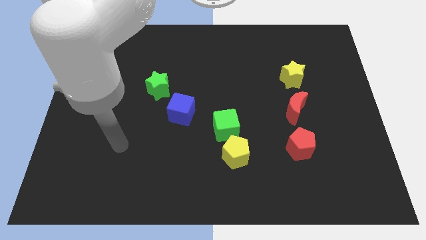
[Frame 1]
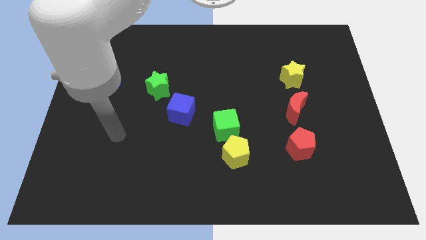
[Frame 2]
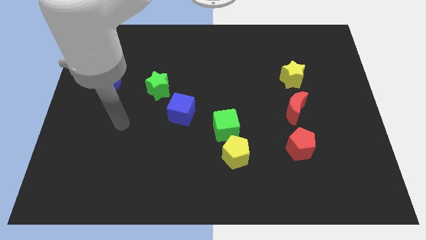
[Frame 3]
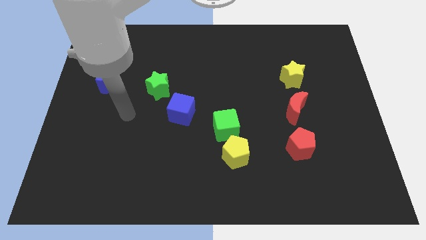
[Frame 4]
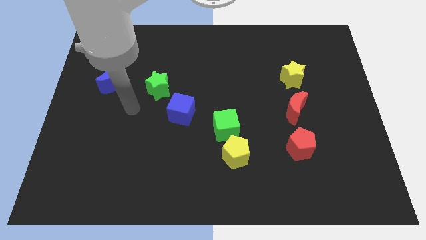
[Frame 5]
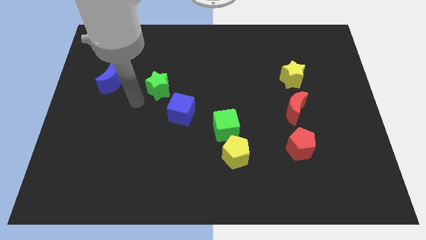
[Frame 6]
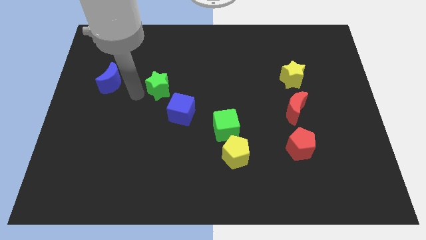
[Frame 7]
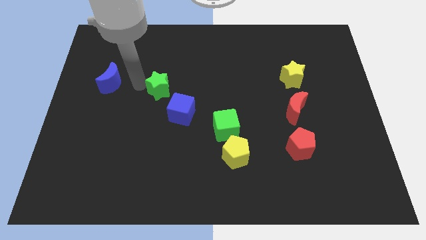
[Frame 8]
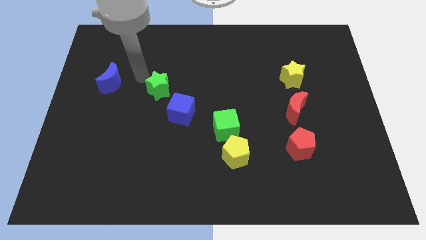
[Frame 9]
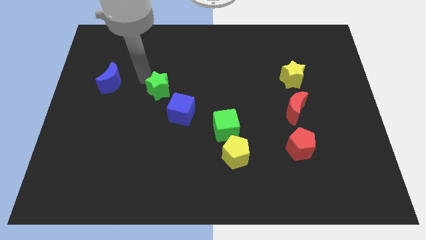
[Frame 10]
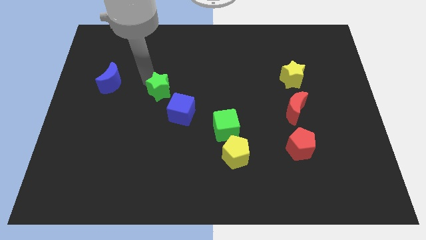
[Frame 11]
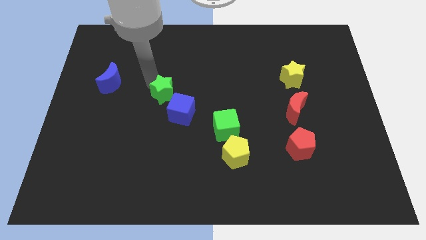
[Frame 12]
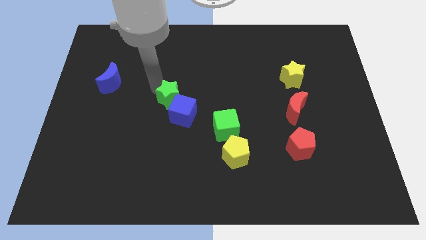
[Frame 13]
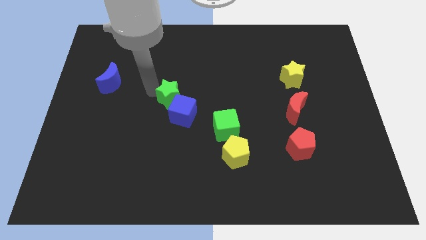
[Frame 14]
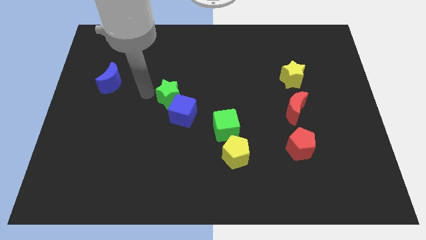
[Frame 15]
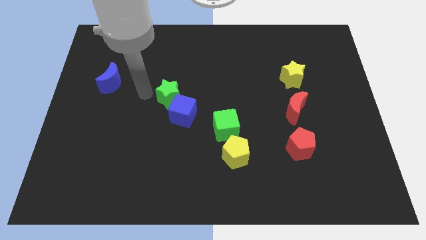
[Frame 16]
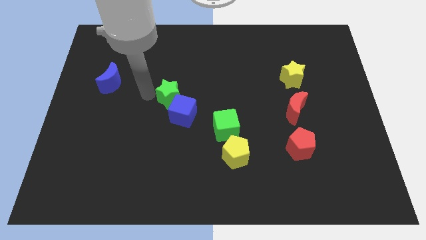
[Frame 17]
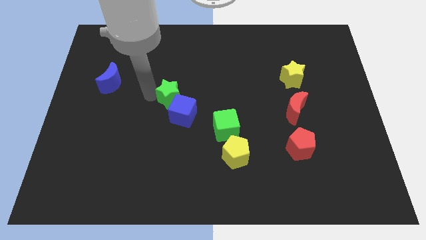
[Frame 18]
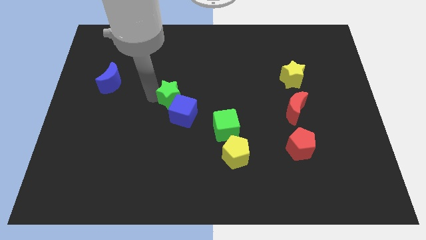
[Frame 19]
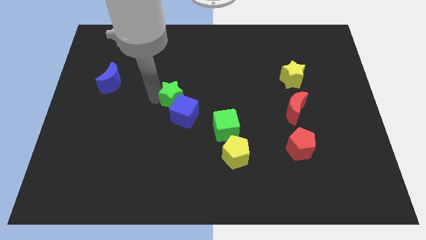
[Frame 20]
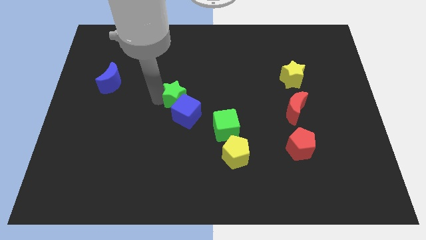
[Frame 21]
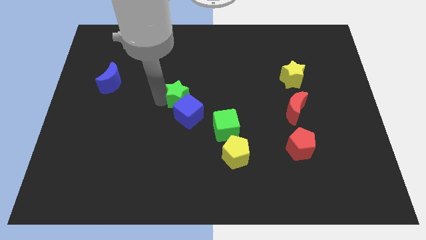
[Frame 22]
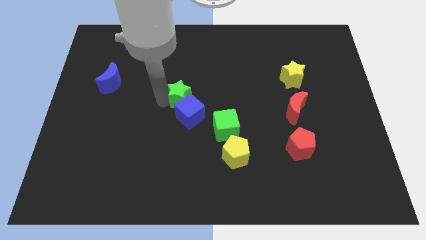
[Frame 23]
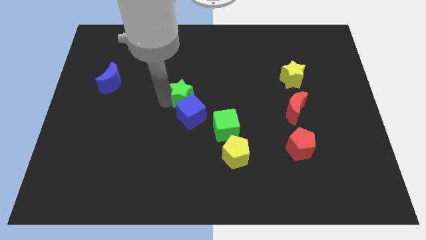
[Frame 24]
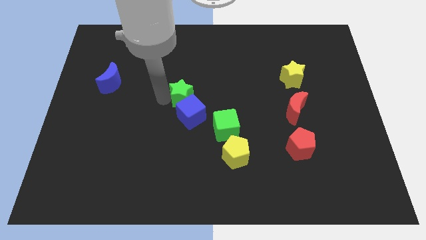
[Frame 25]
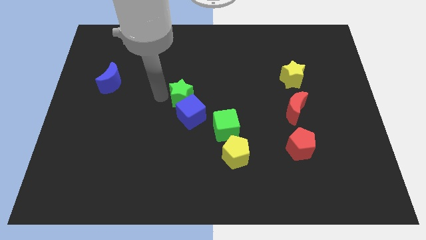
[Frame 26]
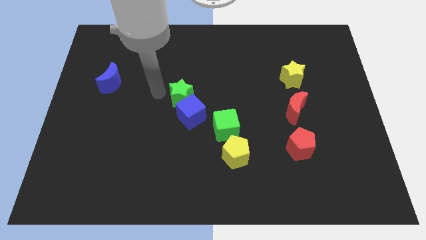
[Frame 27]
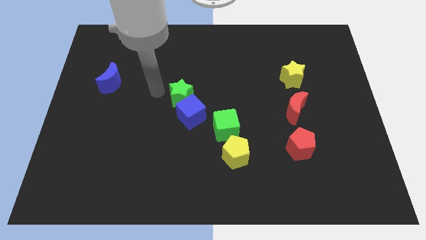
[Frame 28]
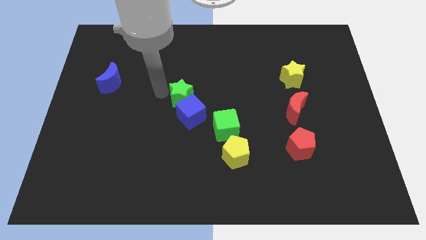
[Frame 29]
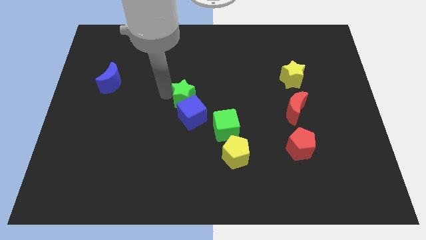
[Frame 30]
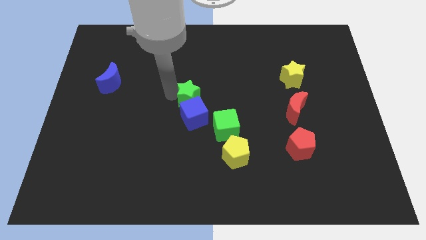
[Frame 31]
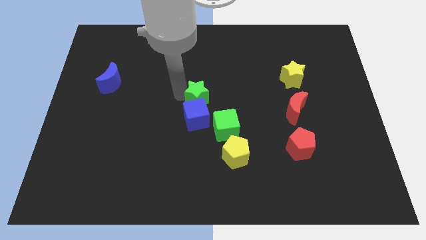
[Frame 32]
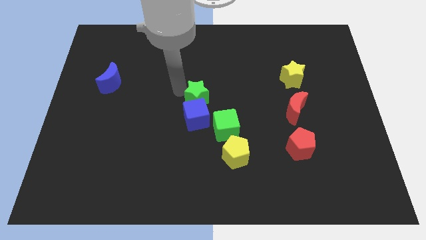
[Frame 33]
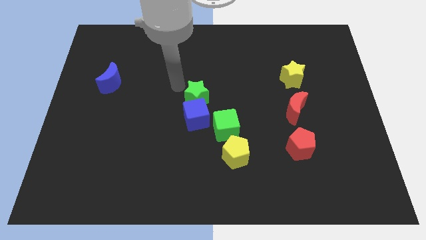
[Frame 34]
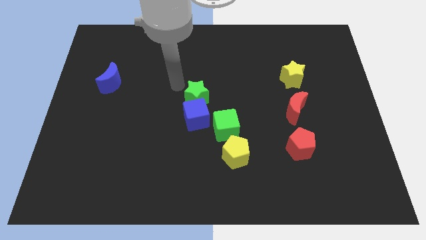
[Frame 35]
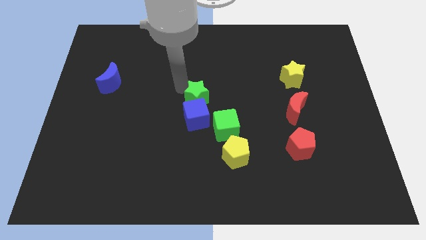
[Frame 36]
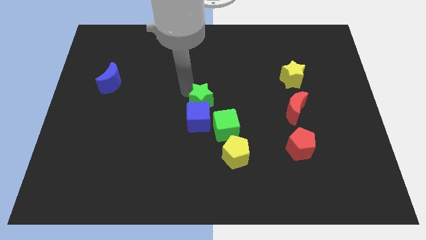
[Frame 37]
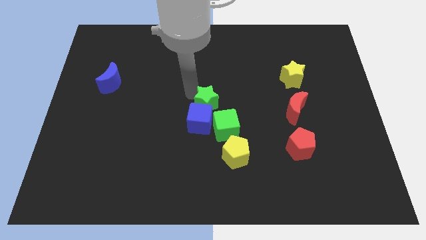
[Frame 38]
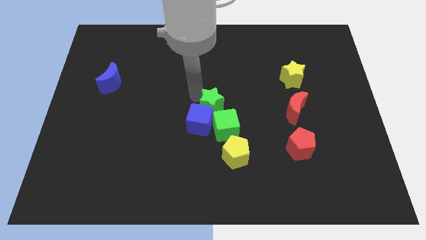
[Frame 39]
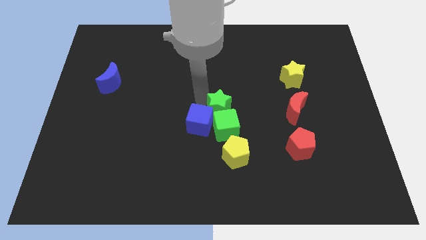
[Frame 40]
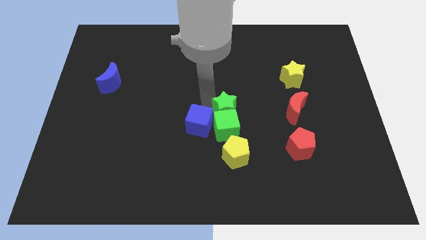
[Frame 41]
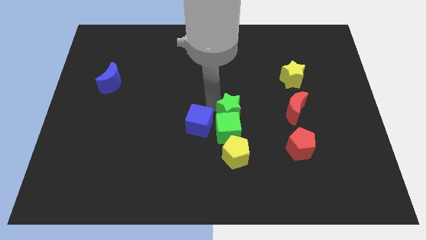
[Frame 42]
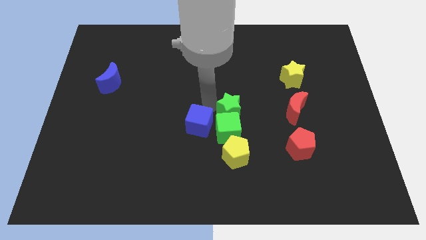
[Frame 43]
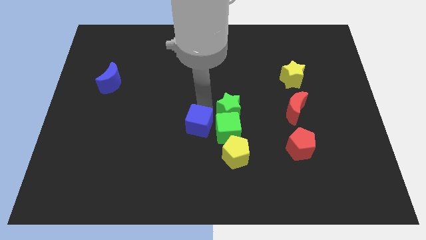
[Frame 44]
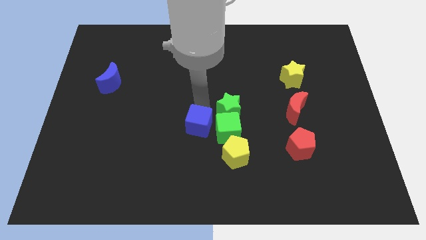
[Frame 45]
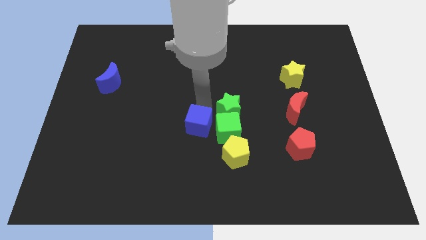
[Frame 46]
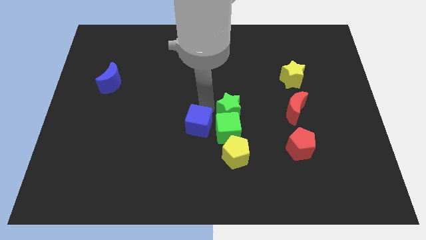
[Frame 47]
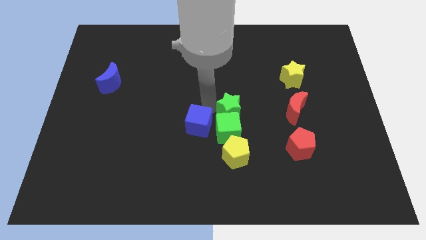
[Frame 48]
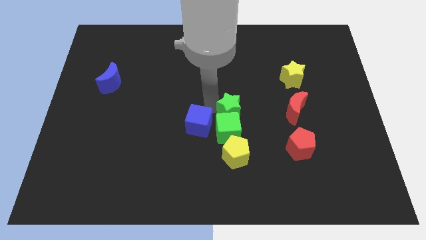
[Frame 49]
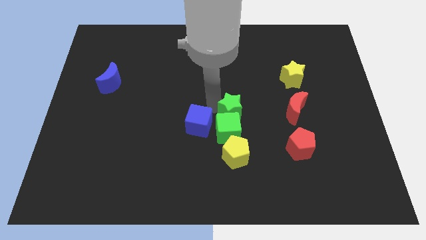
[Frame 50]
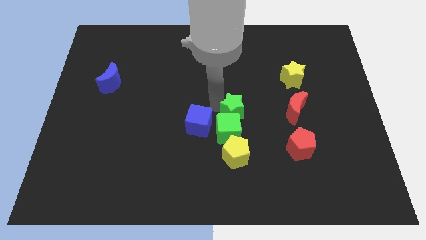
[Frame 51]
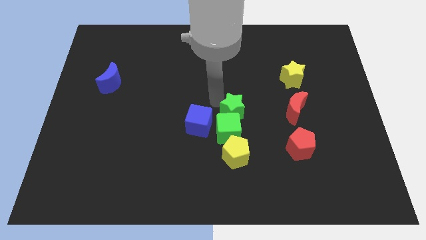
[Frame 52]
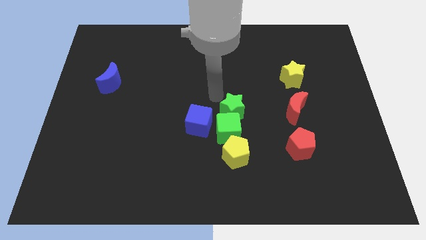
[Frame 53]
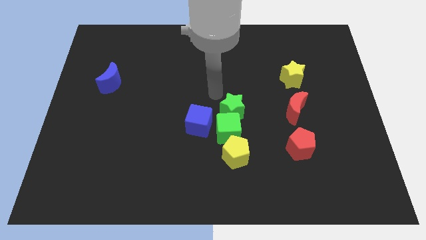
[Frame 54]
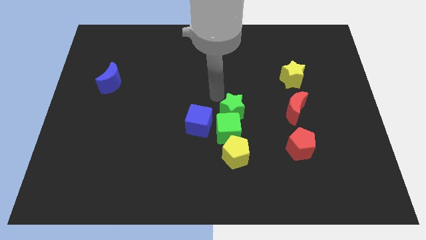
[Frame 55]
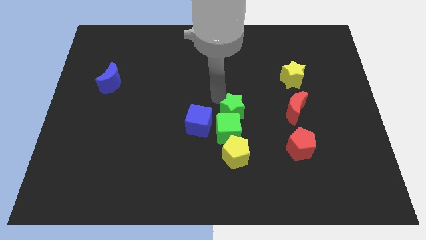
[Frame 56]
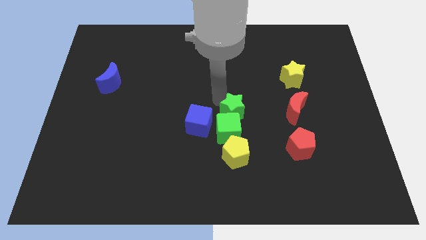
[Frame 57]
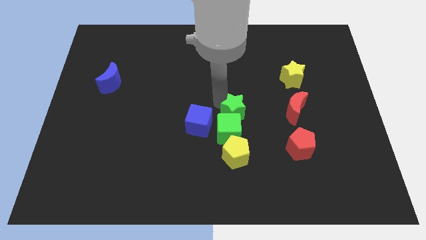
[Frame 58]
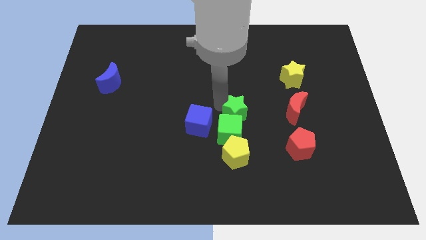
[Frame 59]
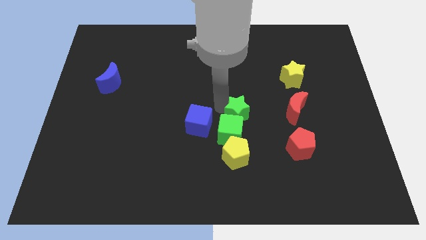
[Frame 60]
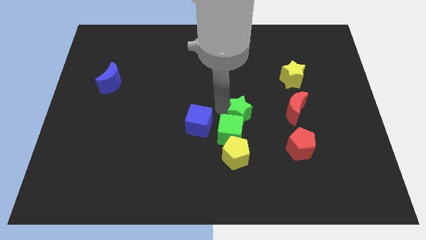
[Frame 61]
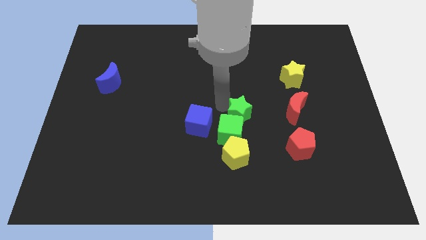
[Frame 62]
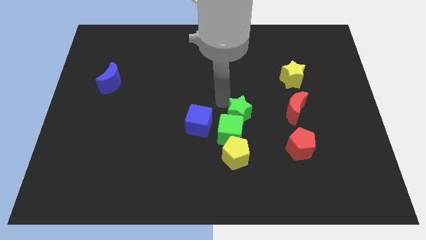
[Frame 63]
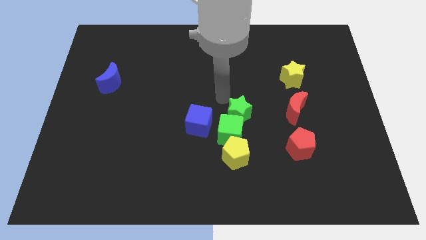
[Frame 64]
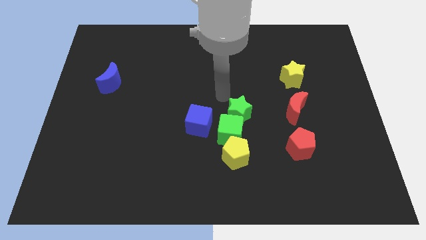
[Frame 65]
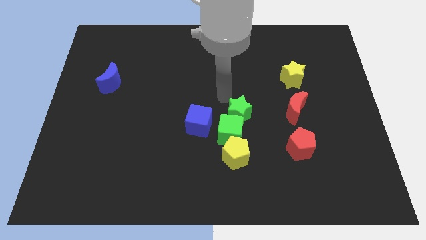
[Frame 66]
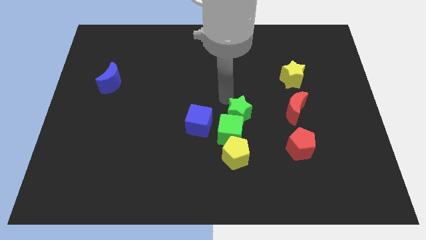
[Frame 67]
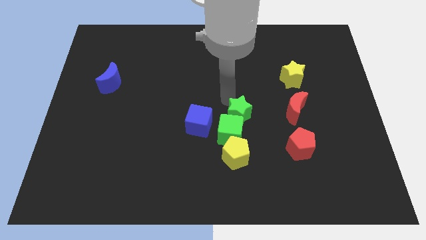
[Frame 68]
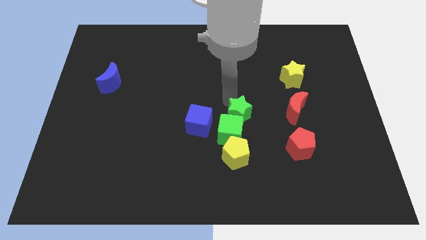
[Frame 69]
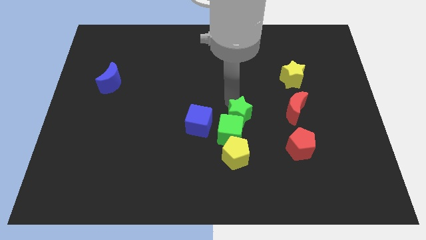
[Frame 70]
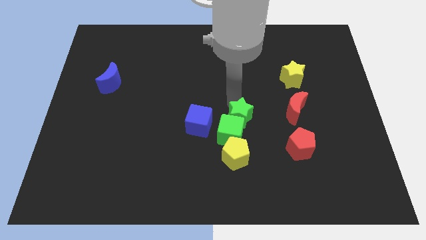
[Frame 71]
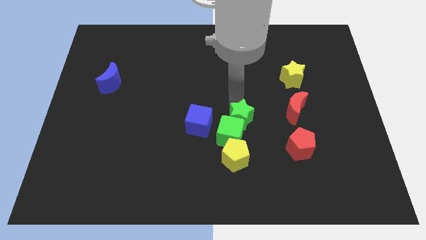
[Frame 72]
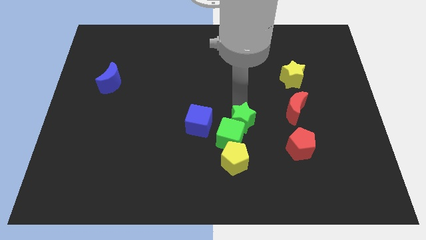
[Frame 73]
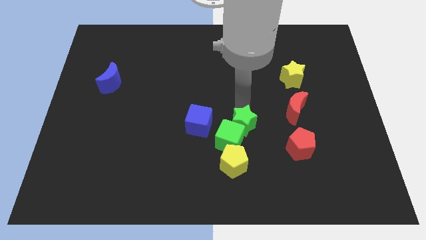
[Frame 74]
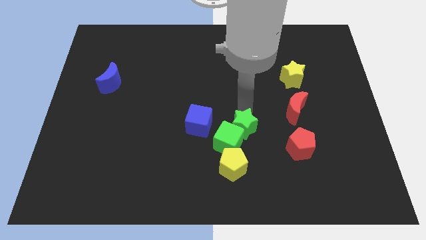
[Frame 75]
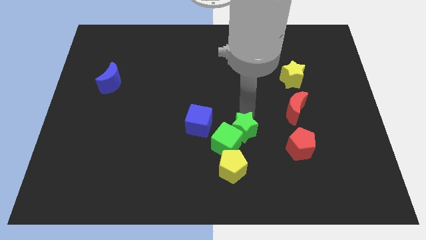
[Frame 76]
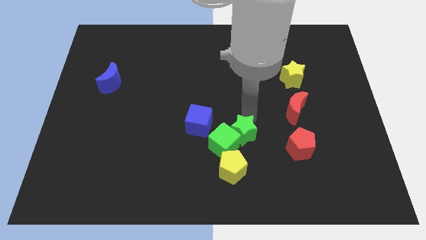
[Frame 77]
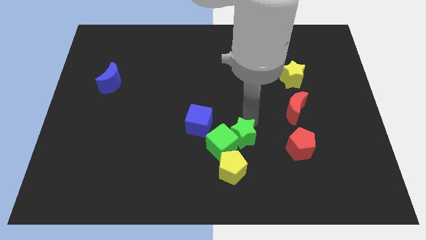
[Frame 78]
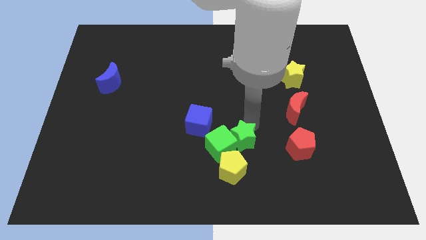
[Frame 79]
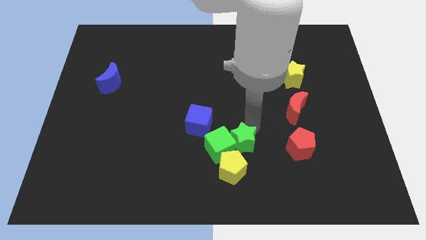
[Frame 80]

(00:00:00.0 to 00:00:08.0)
put the green star to the bottom right side of the green cube
